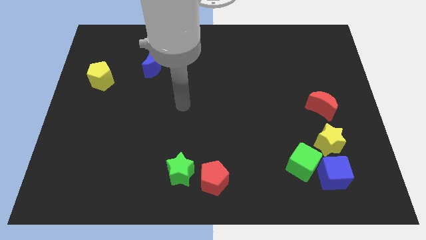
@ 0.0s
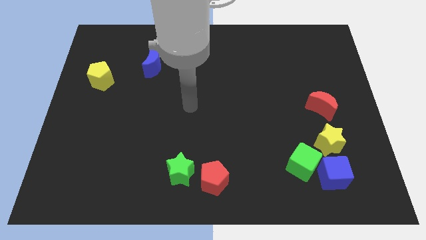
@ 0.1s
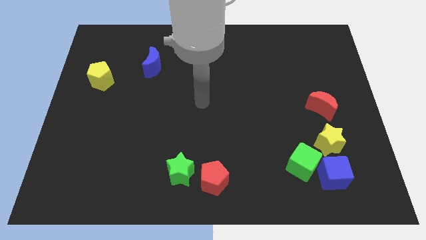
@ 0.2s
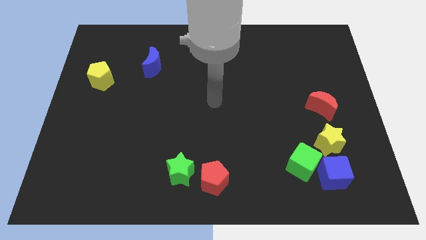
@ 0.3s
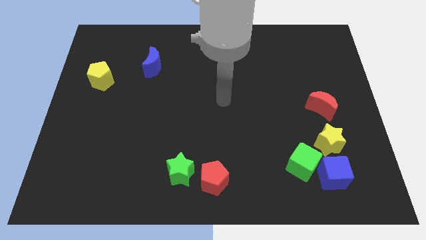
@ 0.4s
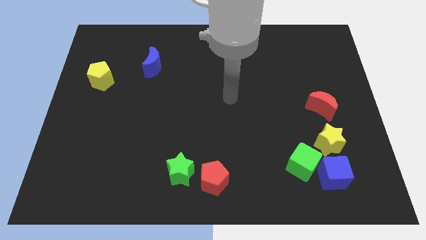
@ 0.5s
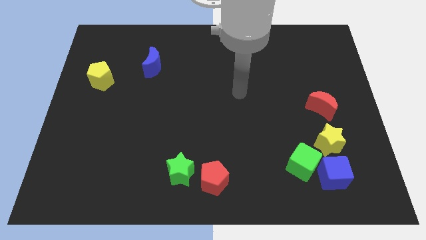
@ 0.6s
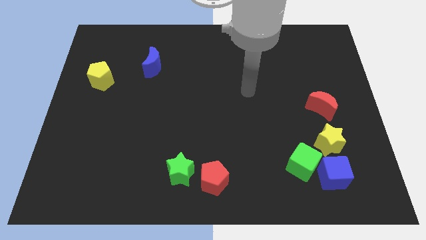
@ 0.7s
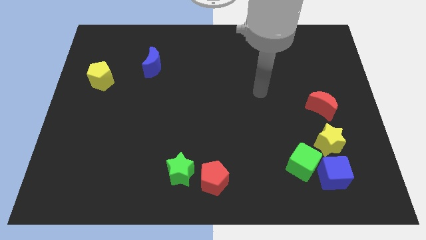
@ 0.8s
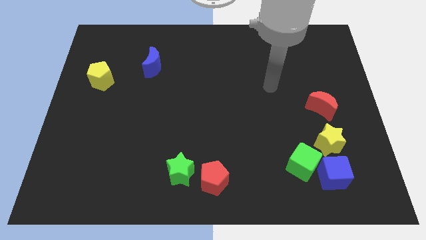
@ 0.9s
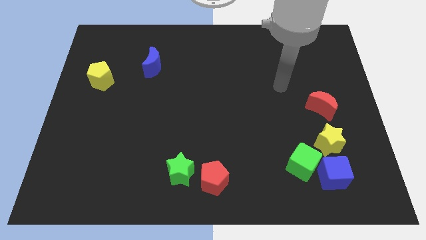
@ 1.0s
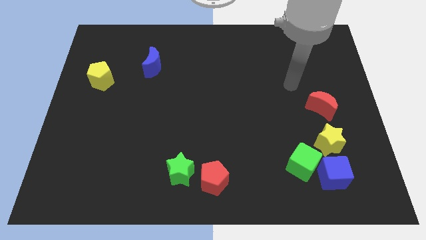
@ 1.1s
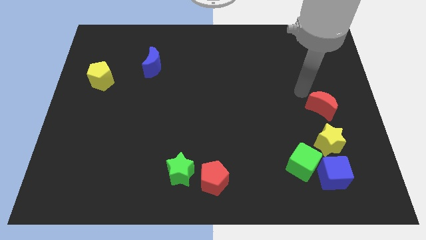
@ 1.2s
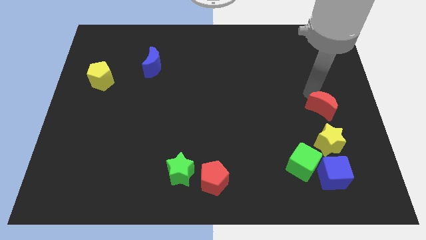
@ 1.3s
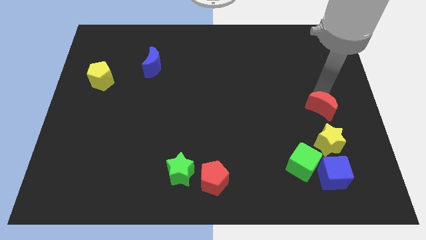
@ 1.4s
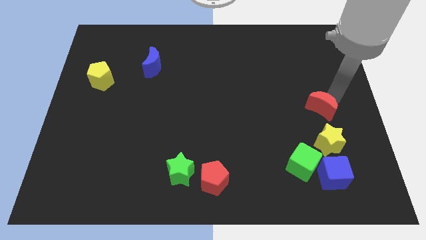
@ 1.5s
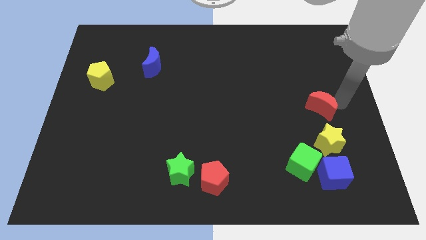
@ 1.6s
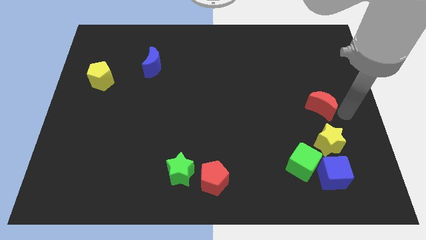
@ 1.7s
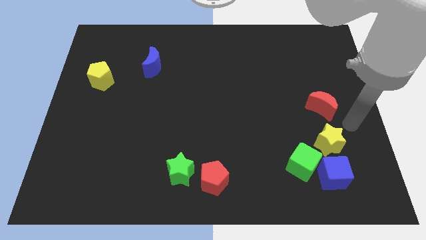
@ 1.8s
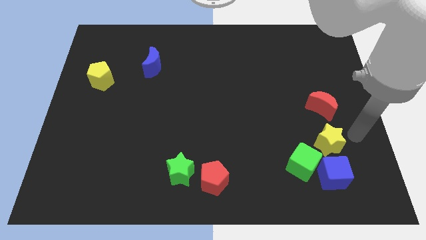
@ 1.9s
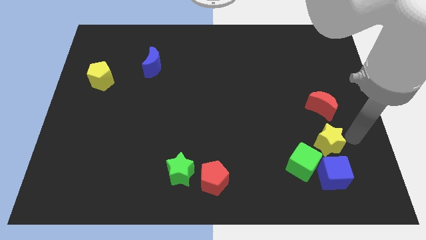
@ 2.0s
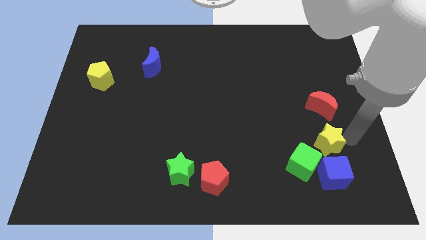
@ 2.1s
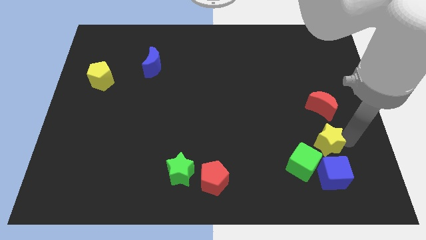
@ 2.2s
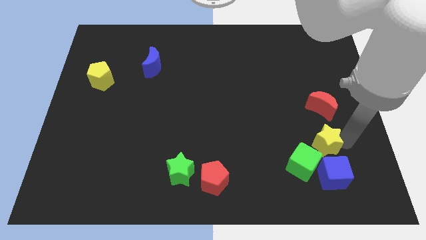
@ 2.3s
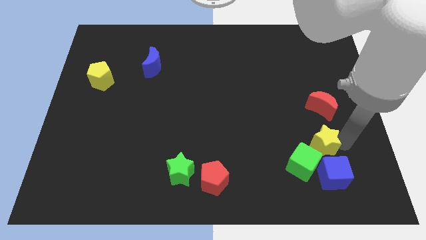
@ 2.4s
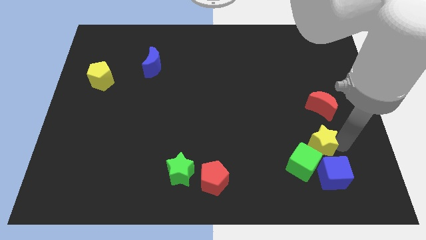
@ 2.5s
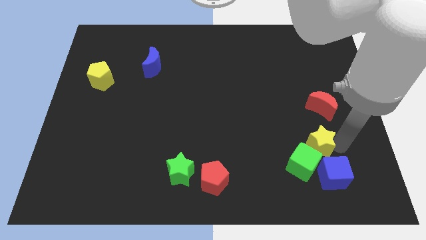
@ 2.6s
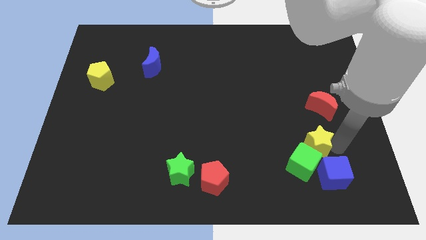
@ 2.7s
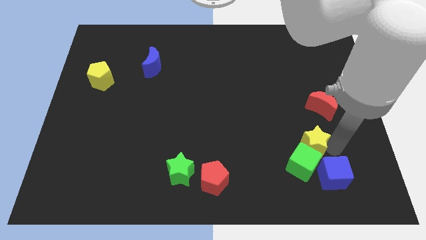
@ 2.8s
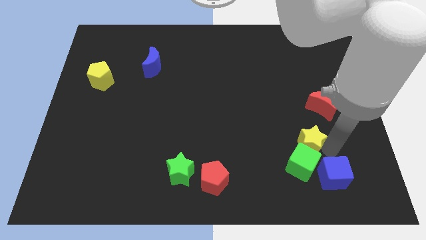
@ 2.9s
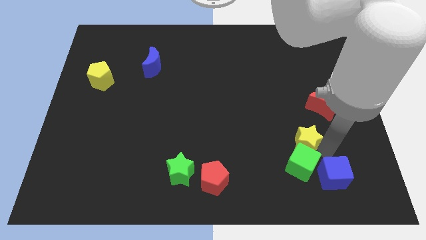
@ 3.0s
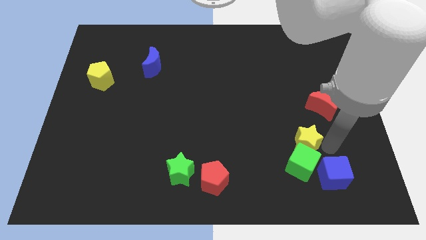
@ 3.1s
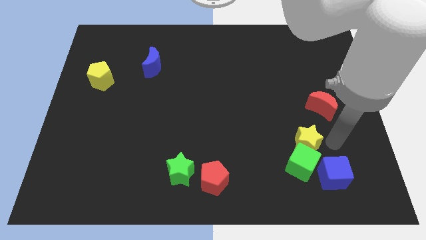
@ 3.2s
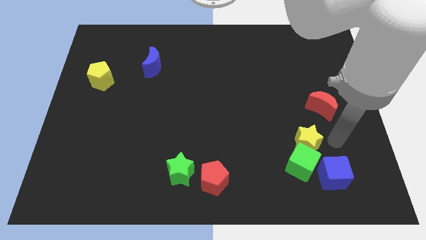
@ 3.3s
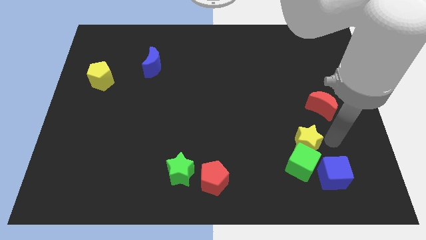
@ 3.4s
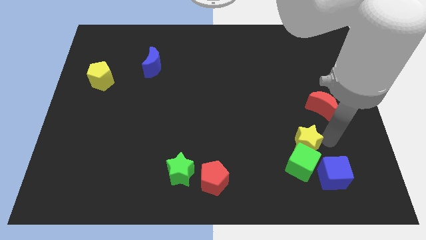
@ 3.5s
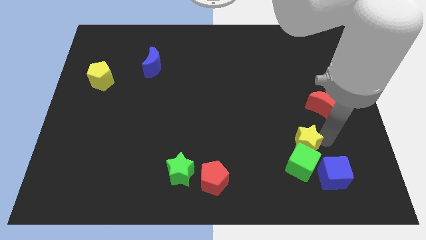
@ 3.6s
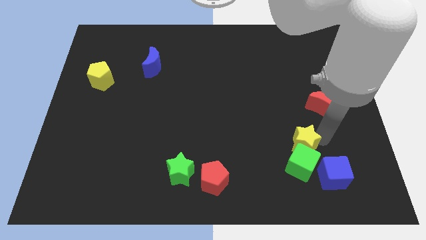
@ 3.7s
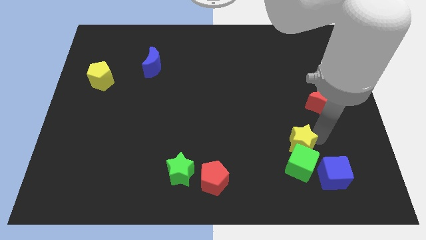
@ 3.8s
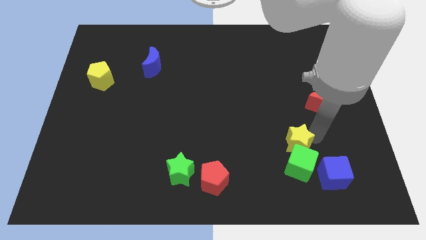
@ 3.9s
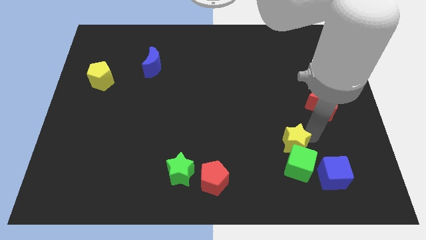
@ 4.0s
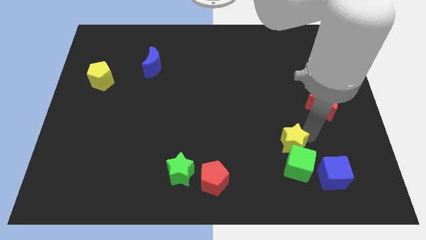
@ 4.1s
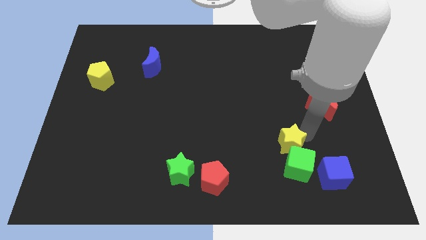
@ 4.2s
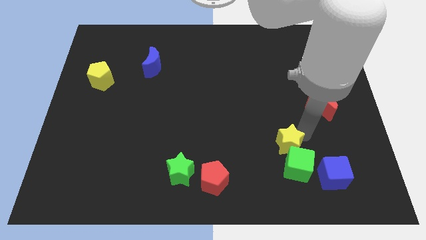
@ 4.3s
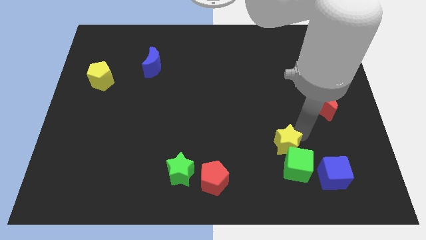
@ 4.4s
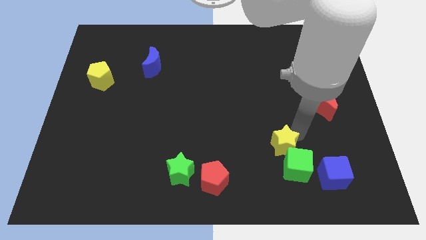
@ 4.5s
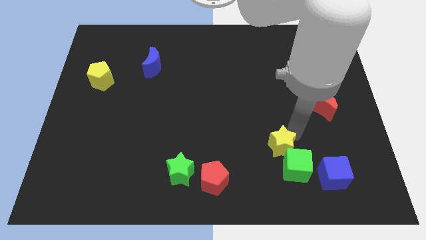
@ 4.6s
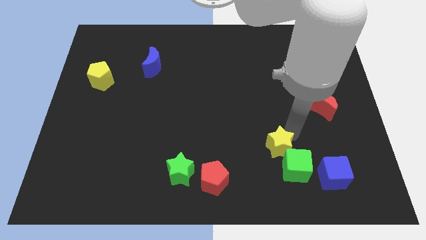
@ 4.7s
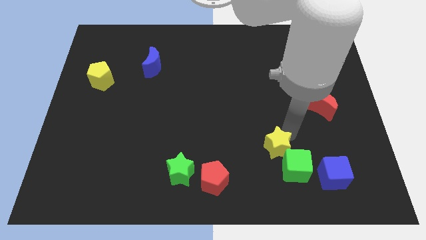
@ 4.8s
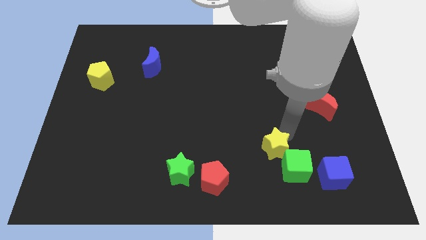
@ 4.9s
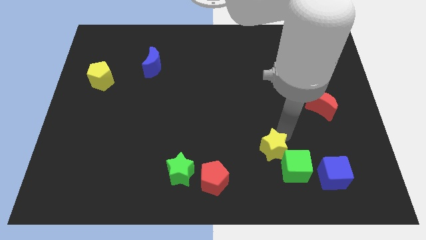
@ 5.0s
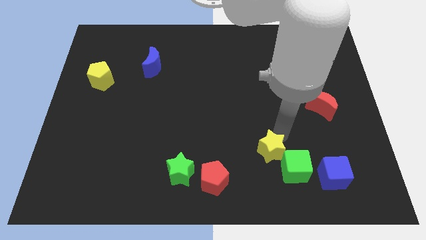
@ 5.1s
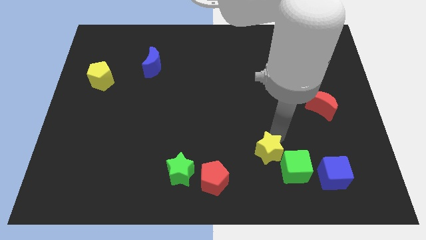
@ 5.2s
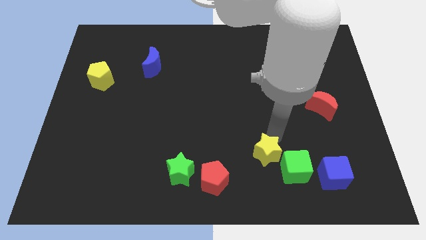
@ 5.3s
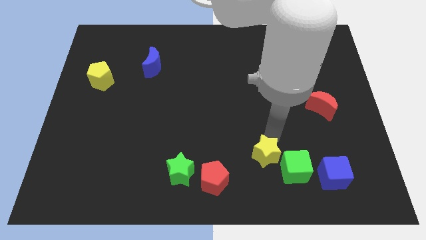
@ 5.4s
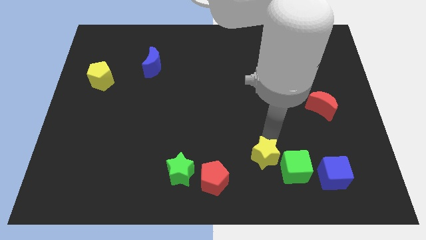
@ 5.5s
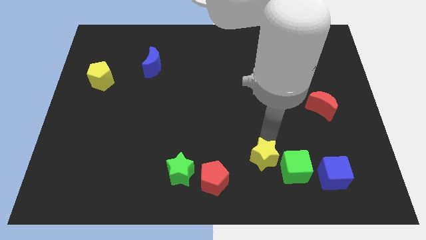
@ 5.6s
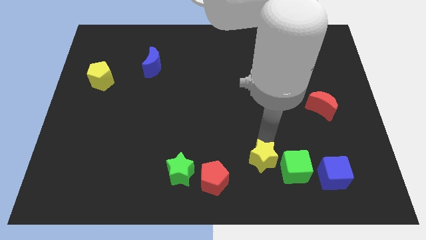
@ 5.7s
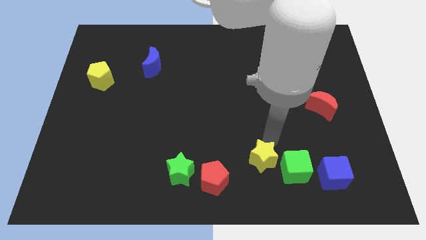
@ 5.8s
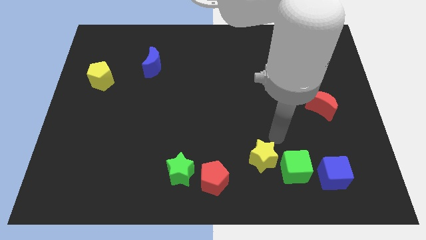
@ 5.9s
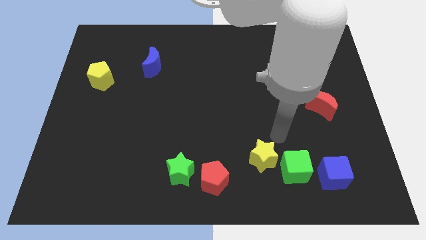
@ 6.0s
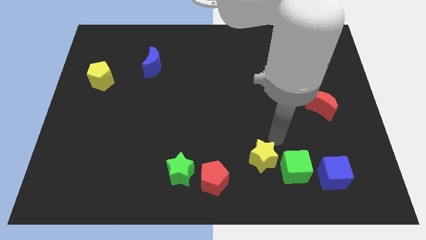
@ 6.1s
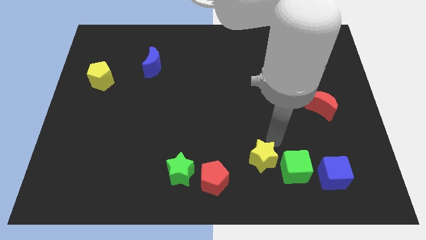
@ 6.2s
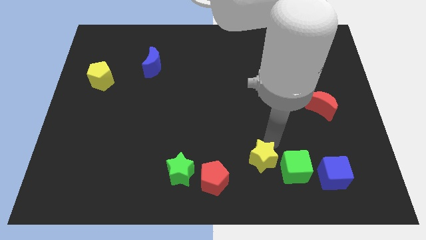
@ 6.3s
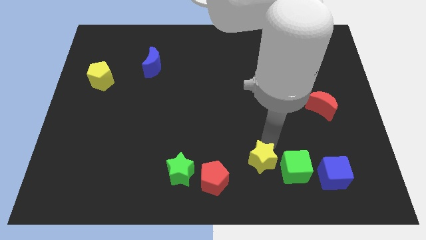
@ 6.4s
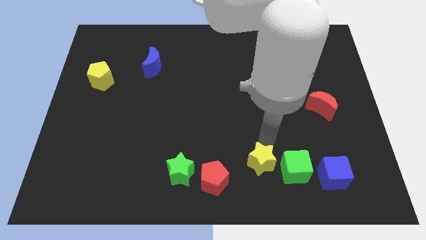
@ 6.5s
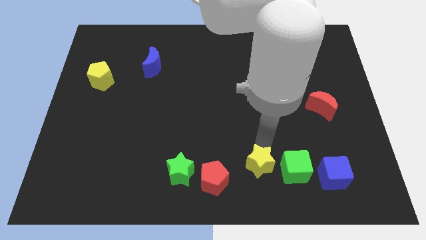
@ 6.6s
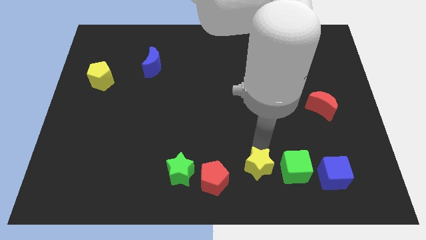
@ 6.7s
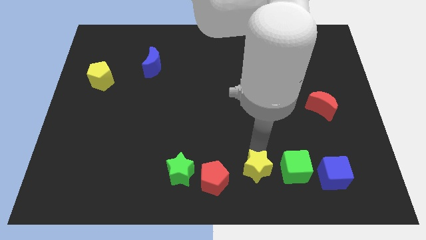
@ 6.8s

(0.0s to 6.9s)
push the yellow star to the bottom side
